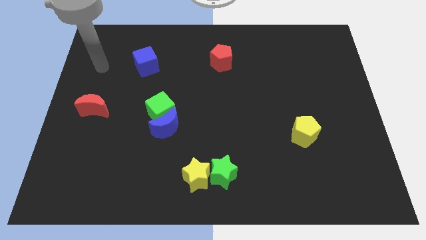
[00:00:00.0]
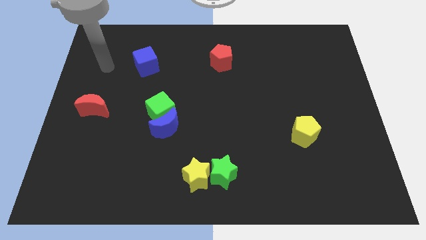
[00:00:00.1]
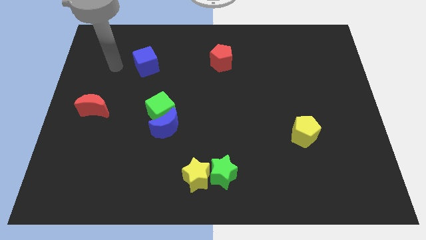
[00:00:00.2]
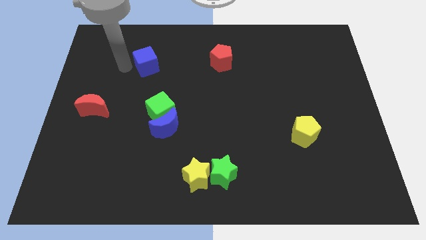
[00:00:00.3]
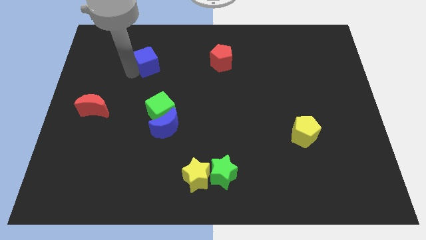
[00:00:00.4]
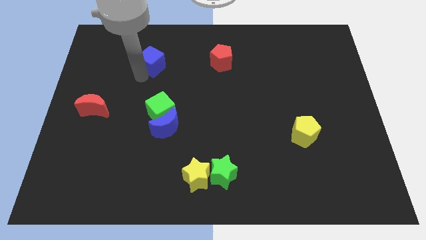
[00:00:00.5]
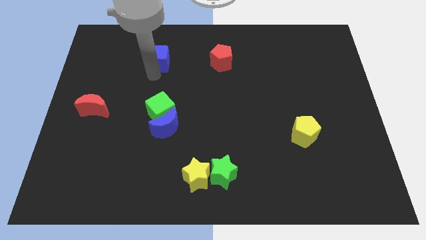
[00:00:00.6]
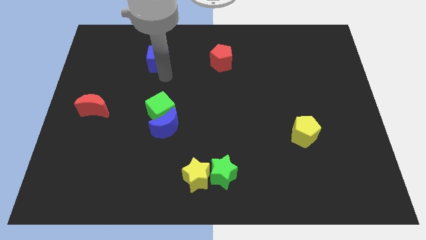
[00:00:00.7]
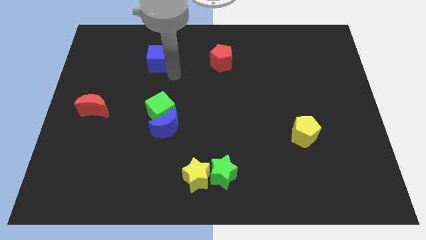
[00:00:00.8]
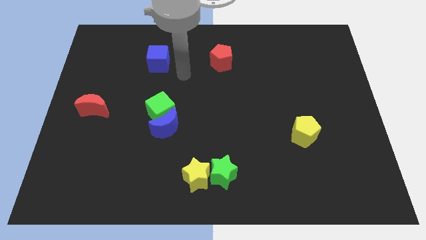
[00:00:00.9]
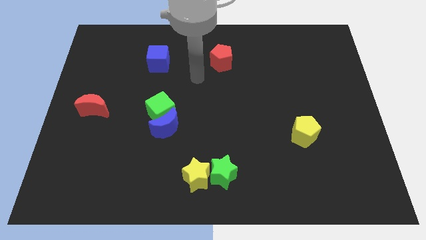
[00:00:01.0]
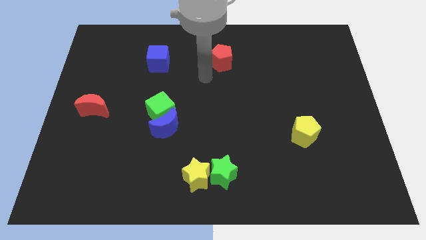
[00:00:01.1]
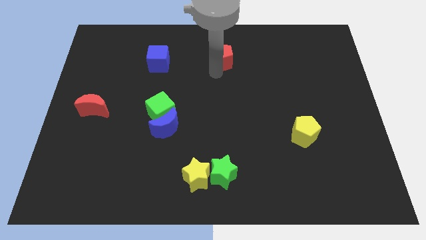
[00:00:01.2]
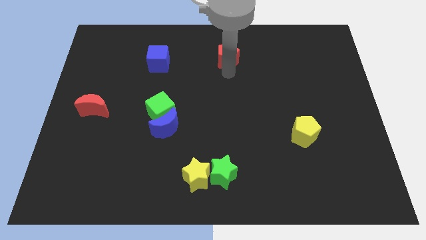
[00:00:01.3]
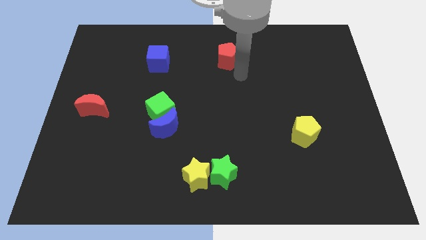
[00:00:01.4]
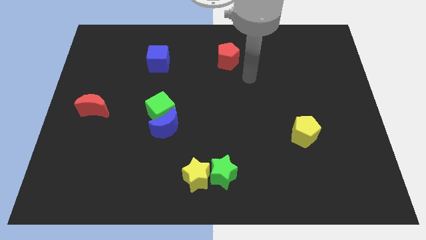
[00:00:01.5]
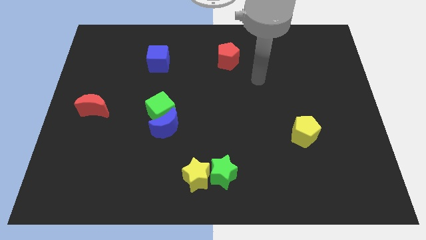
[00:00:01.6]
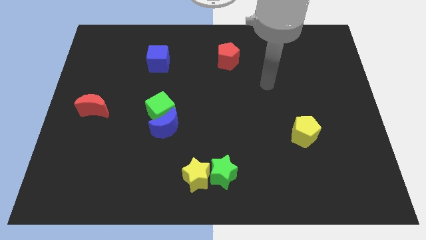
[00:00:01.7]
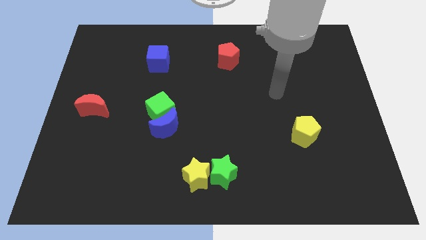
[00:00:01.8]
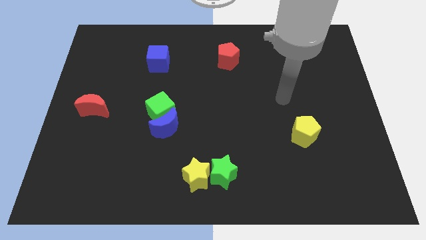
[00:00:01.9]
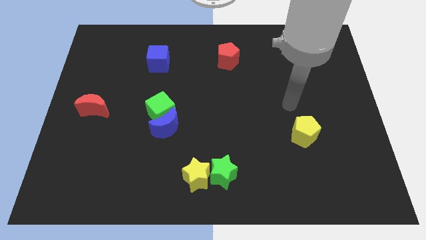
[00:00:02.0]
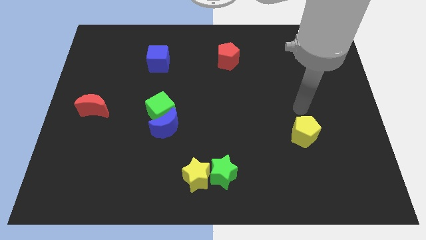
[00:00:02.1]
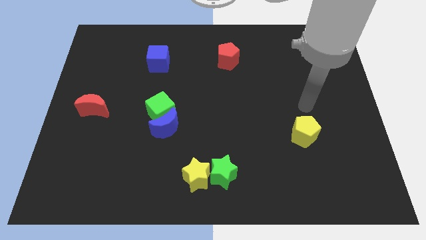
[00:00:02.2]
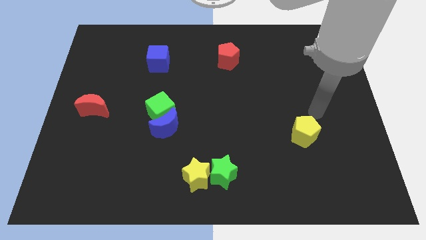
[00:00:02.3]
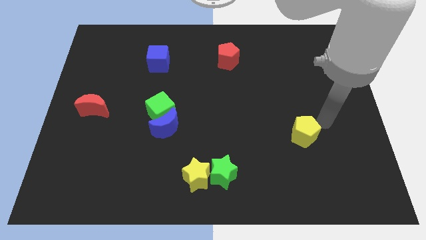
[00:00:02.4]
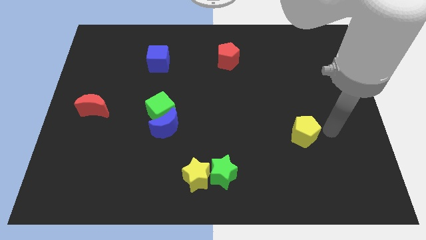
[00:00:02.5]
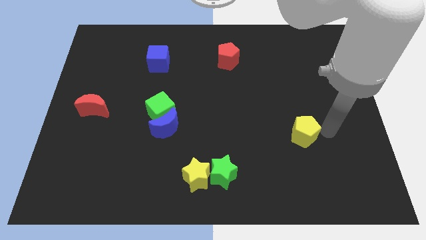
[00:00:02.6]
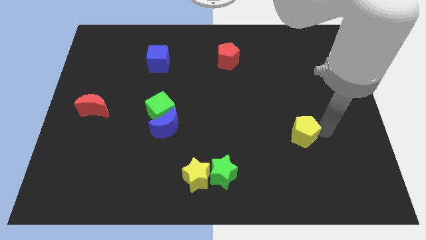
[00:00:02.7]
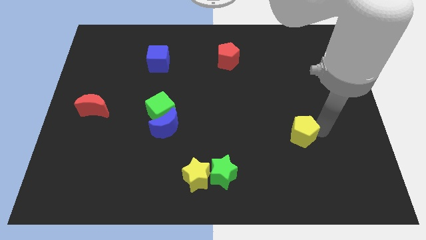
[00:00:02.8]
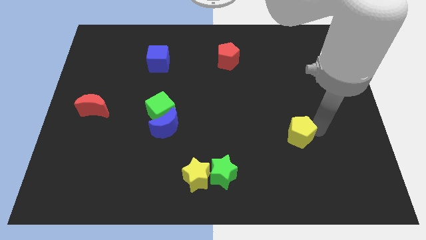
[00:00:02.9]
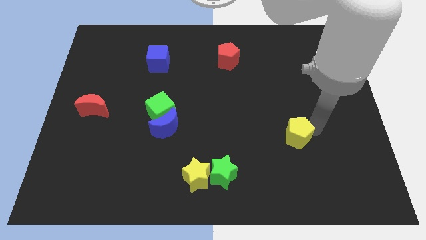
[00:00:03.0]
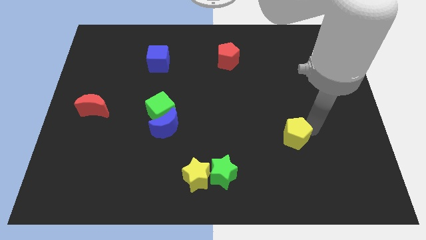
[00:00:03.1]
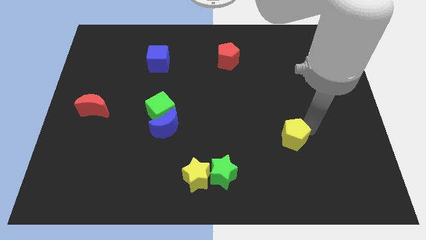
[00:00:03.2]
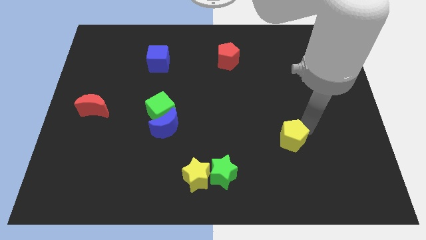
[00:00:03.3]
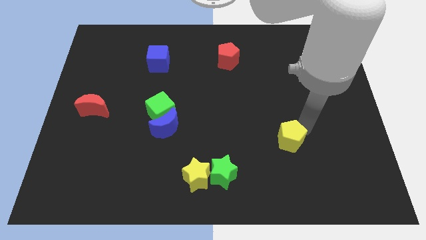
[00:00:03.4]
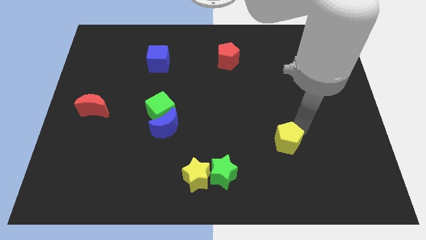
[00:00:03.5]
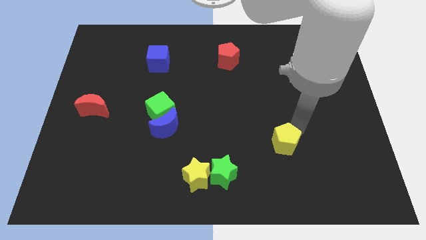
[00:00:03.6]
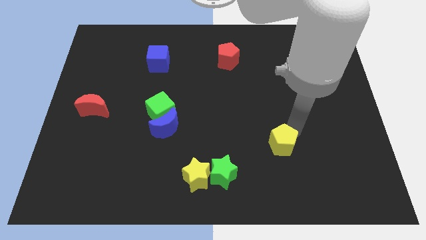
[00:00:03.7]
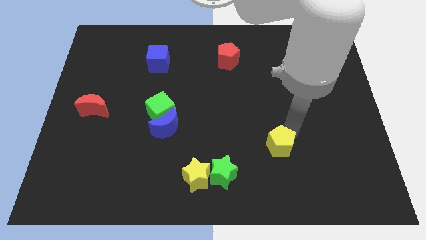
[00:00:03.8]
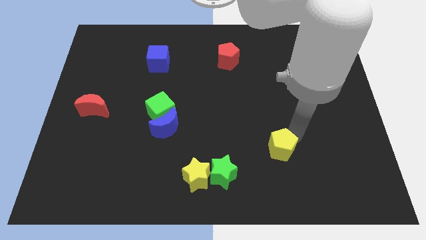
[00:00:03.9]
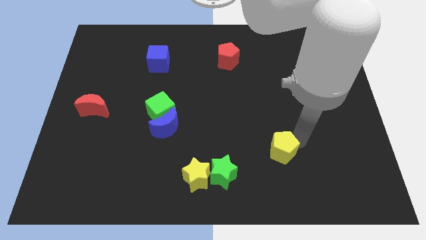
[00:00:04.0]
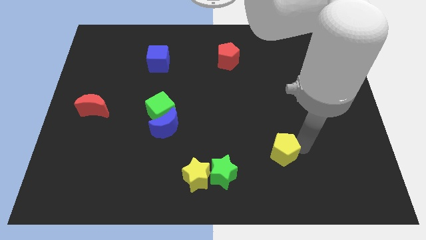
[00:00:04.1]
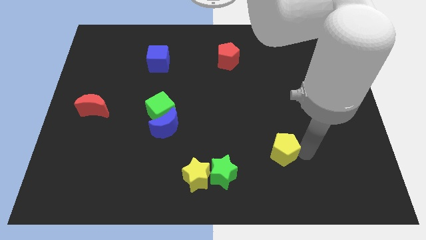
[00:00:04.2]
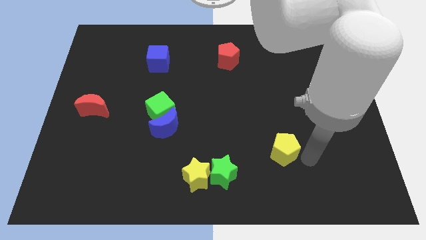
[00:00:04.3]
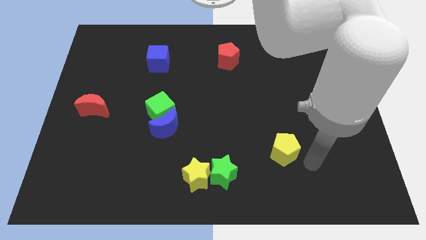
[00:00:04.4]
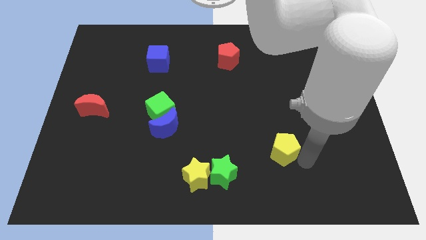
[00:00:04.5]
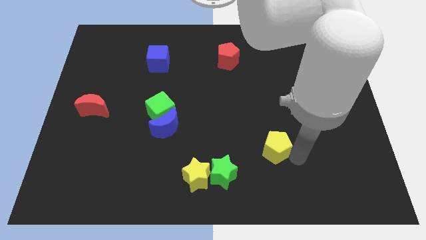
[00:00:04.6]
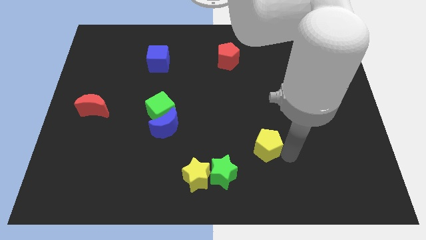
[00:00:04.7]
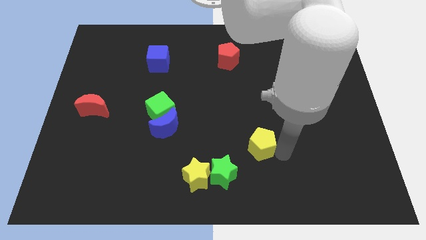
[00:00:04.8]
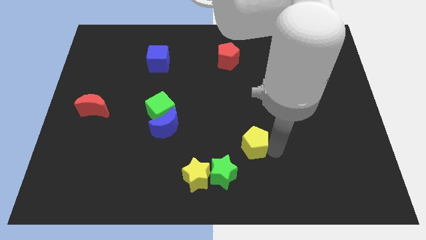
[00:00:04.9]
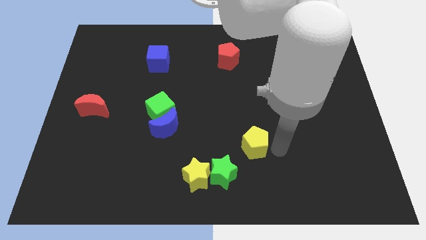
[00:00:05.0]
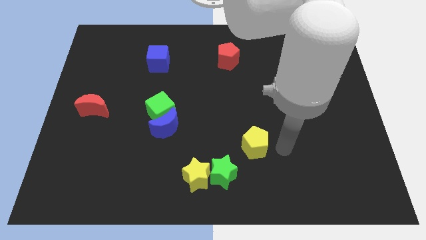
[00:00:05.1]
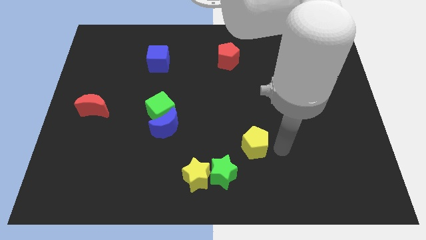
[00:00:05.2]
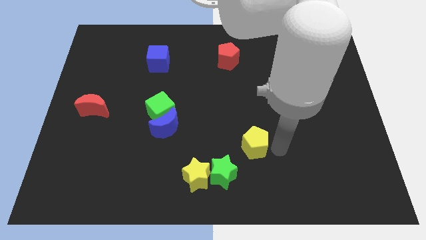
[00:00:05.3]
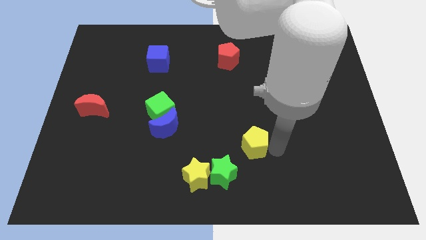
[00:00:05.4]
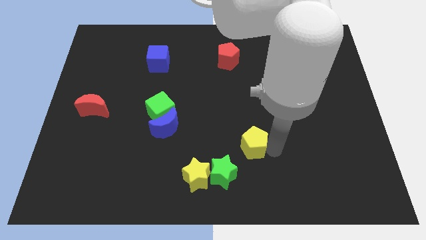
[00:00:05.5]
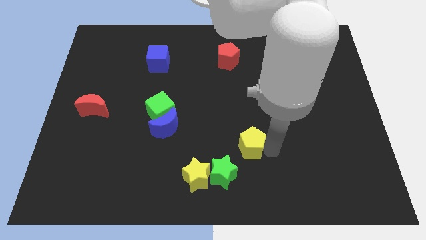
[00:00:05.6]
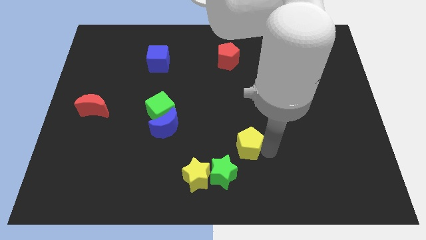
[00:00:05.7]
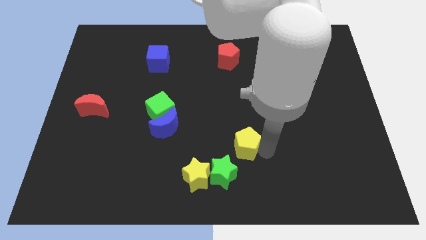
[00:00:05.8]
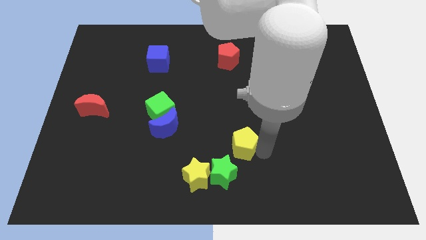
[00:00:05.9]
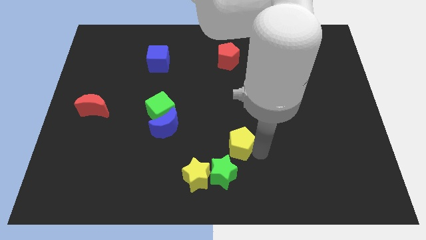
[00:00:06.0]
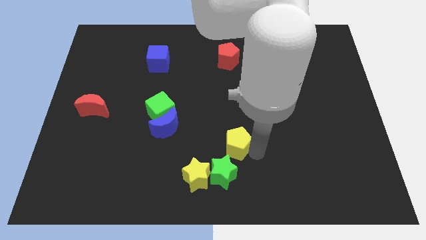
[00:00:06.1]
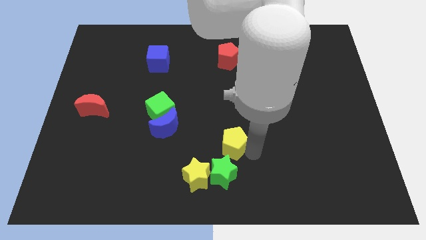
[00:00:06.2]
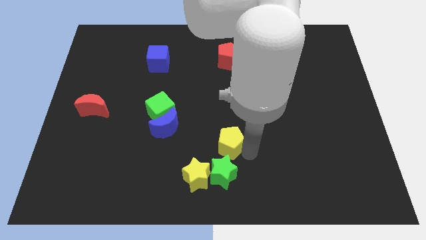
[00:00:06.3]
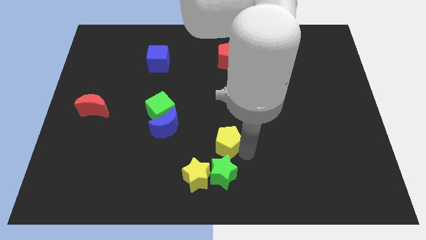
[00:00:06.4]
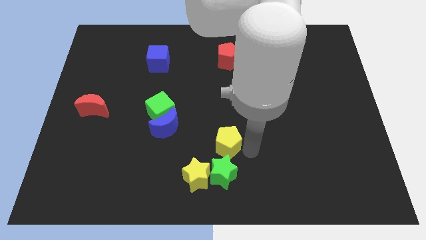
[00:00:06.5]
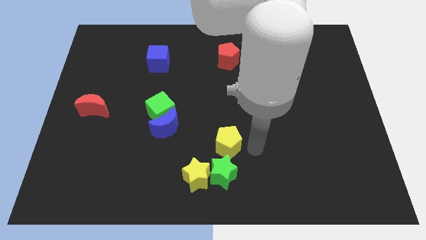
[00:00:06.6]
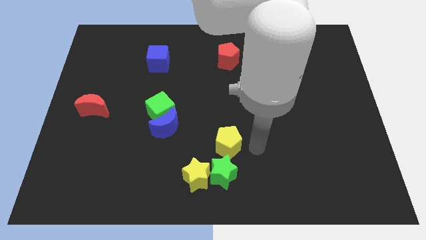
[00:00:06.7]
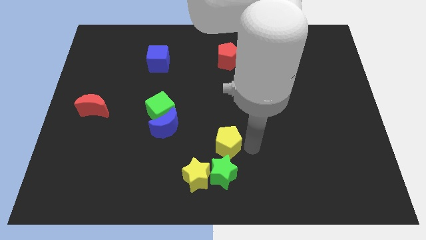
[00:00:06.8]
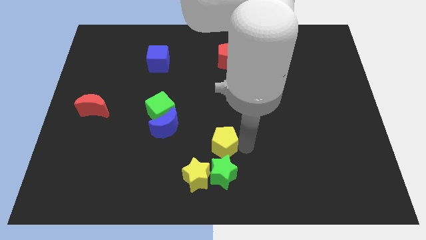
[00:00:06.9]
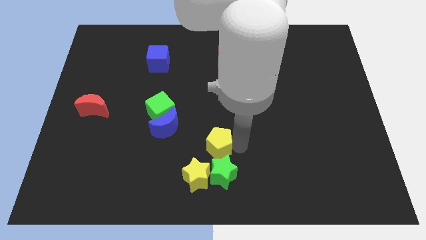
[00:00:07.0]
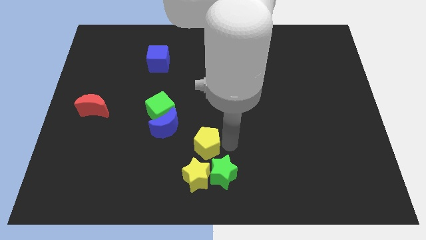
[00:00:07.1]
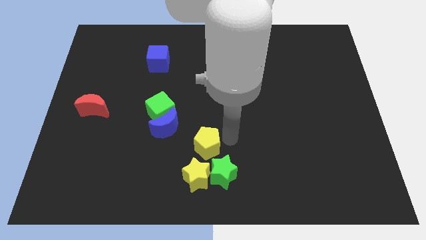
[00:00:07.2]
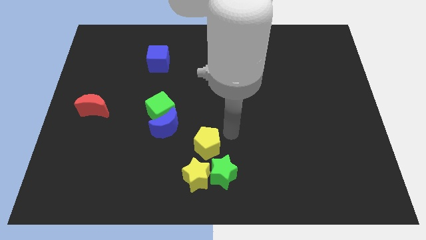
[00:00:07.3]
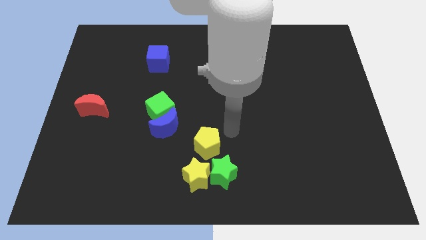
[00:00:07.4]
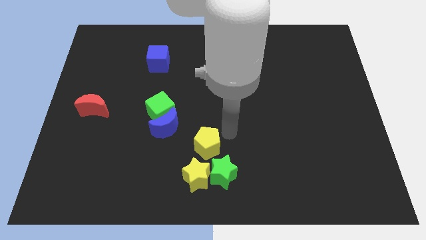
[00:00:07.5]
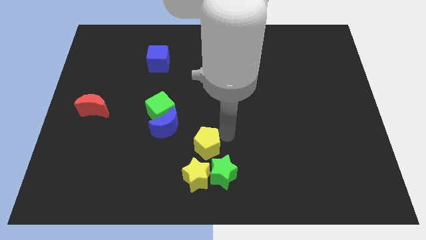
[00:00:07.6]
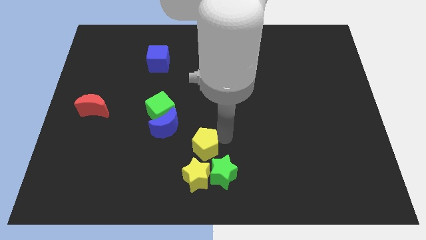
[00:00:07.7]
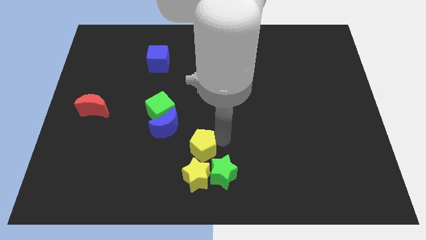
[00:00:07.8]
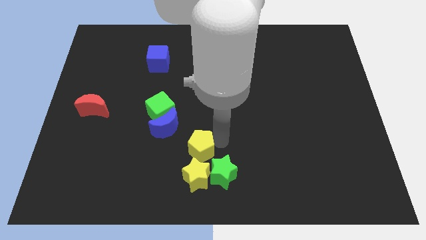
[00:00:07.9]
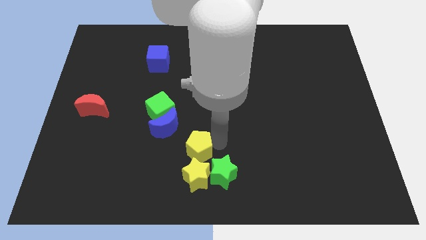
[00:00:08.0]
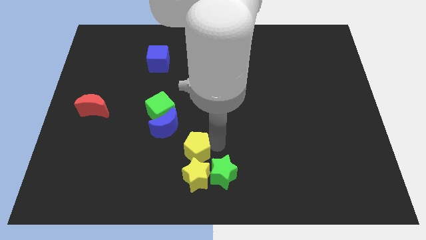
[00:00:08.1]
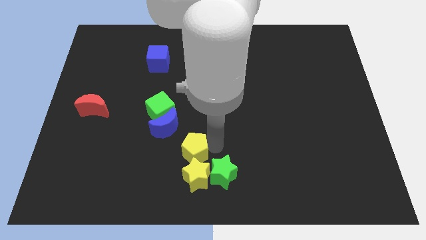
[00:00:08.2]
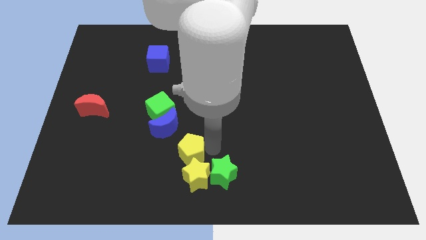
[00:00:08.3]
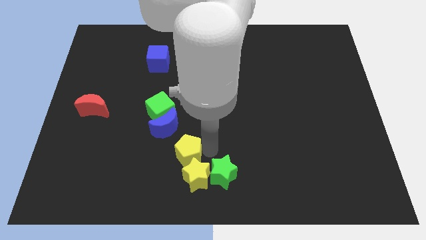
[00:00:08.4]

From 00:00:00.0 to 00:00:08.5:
push the yellow pentagon just left of the green star
